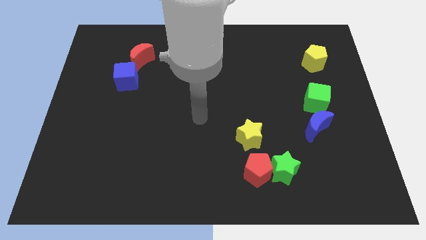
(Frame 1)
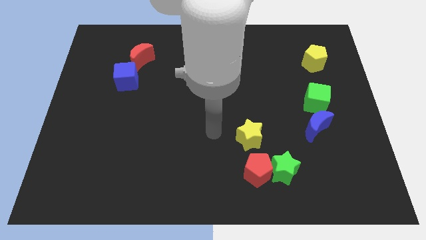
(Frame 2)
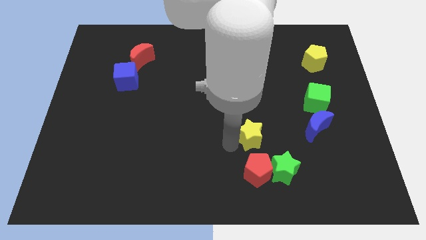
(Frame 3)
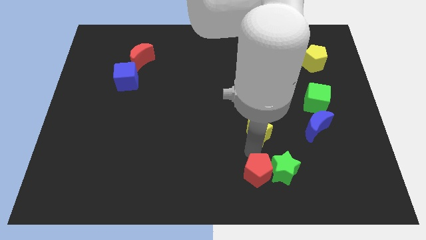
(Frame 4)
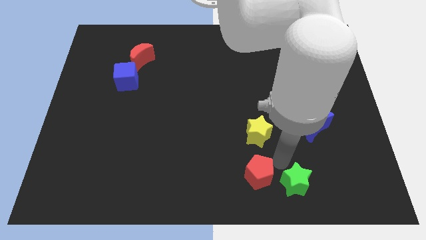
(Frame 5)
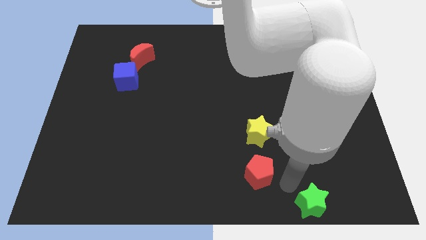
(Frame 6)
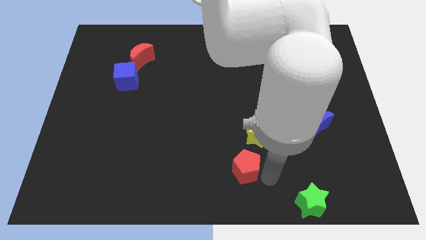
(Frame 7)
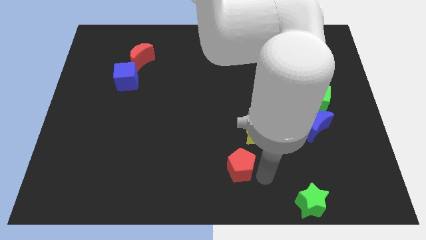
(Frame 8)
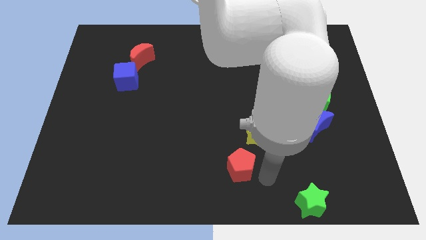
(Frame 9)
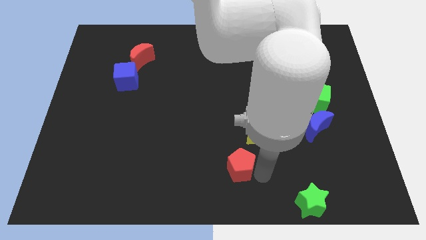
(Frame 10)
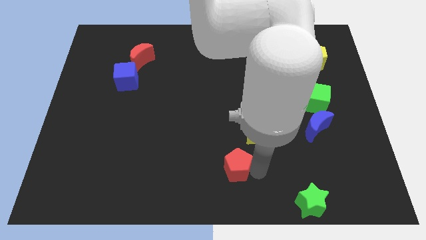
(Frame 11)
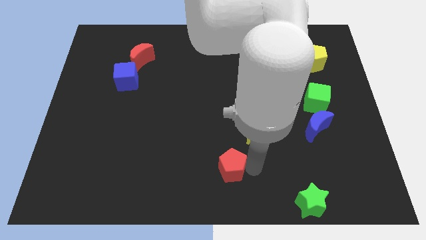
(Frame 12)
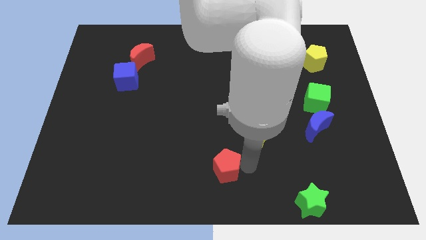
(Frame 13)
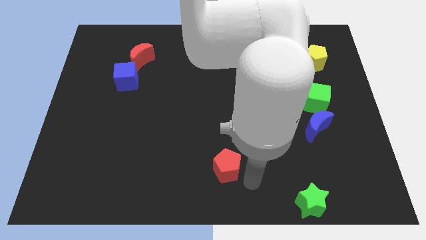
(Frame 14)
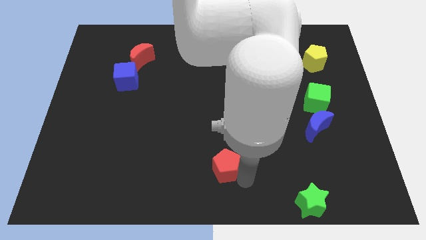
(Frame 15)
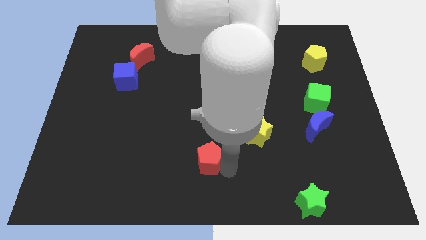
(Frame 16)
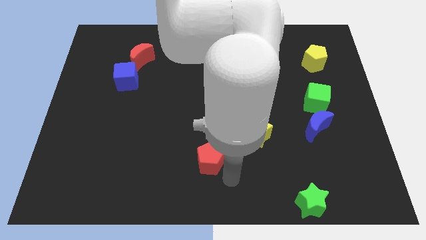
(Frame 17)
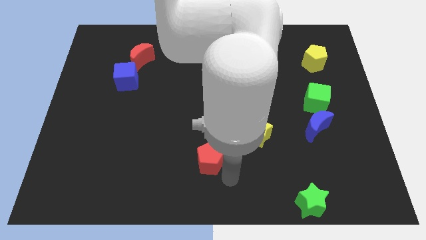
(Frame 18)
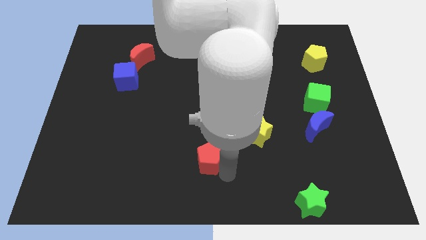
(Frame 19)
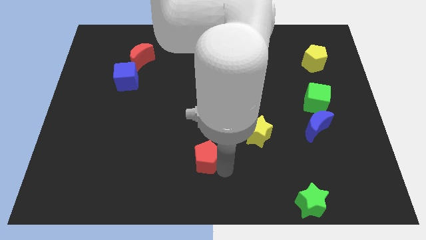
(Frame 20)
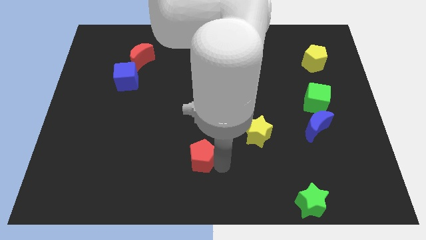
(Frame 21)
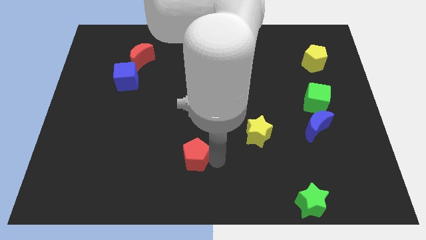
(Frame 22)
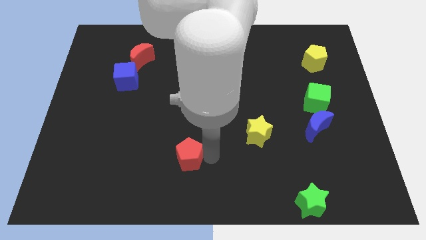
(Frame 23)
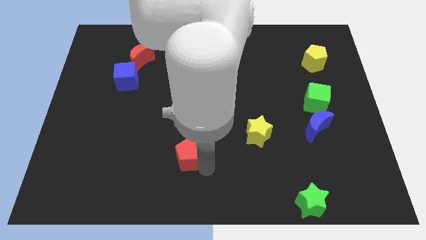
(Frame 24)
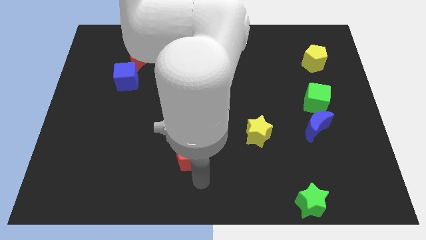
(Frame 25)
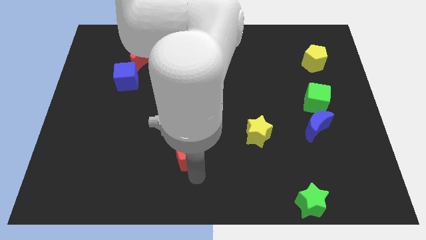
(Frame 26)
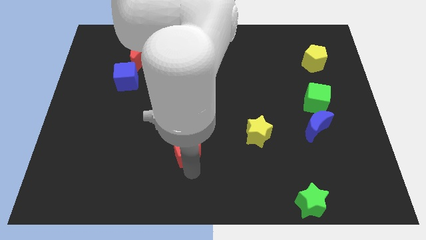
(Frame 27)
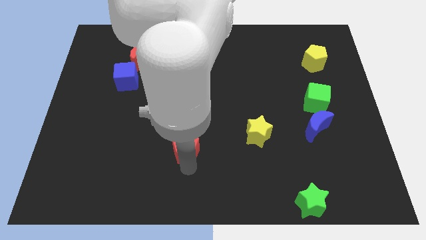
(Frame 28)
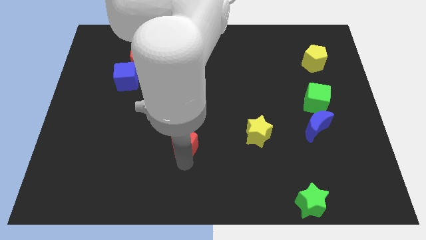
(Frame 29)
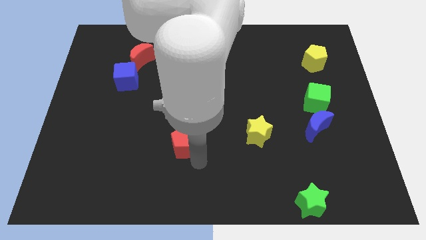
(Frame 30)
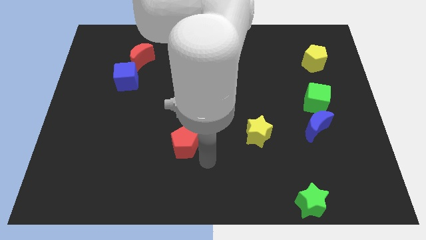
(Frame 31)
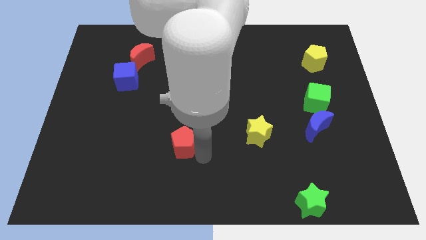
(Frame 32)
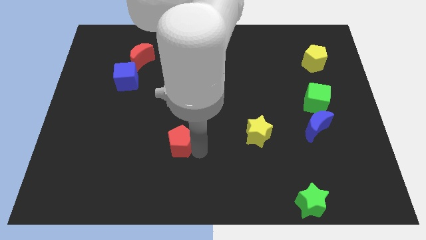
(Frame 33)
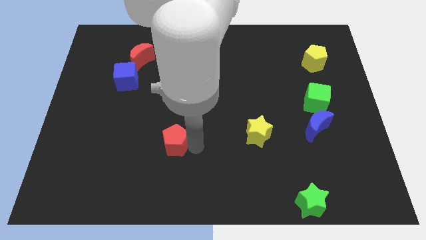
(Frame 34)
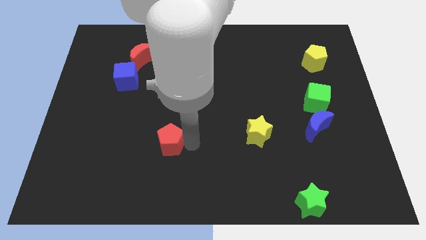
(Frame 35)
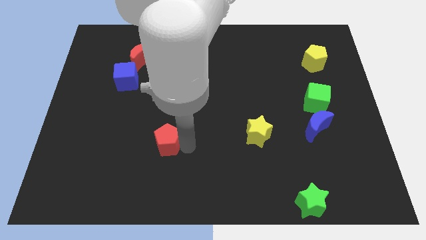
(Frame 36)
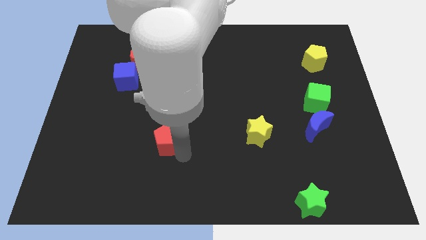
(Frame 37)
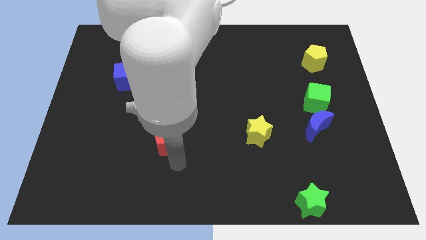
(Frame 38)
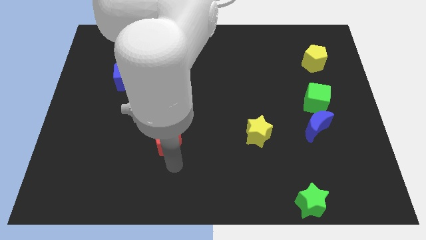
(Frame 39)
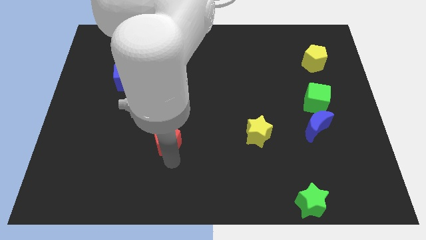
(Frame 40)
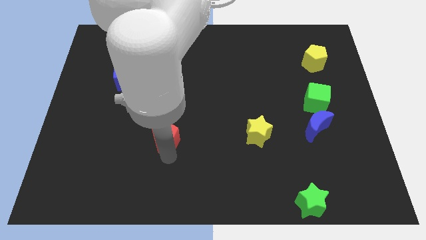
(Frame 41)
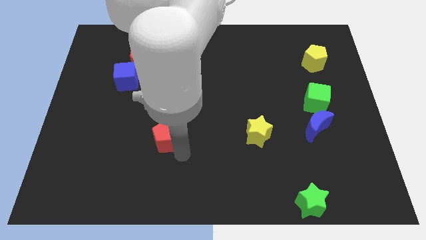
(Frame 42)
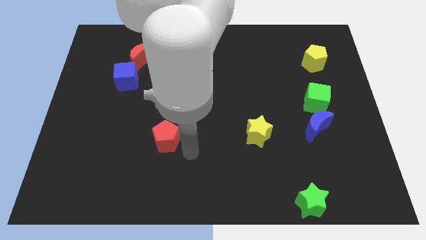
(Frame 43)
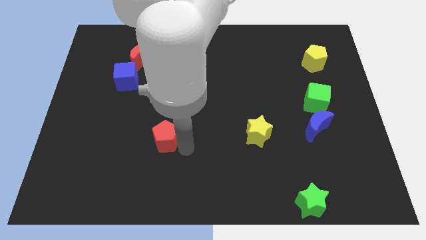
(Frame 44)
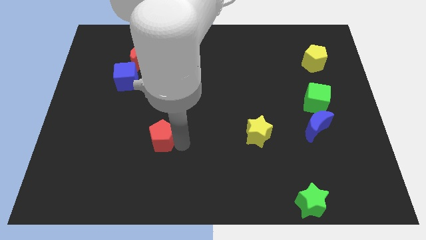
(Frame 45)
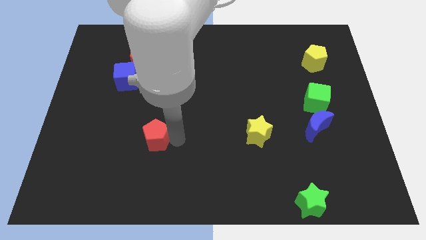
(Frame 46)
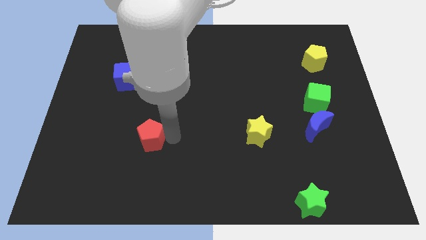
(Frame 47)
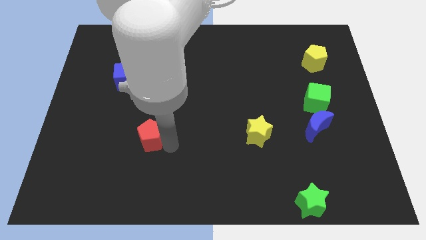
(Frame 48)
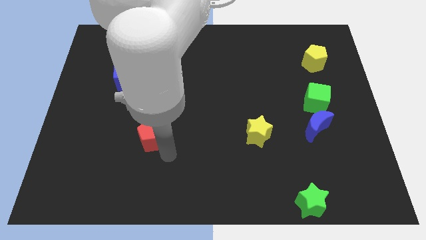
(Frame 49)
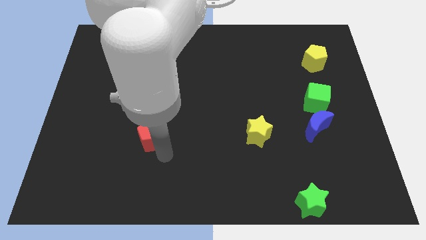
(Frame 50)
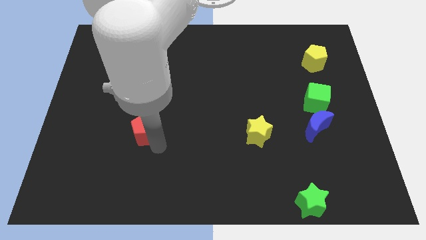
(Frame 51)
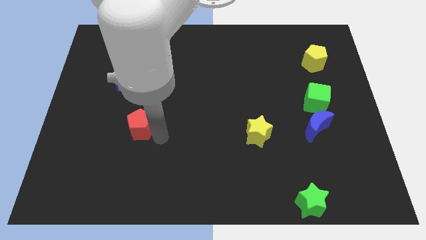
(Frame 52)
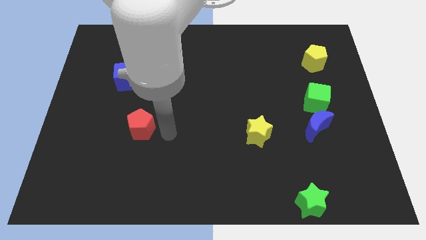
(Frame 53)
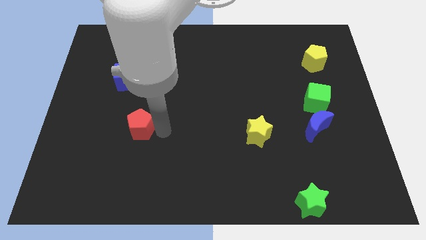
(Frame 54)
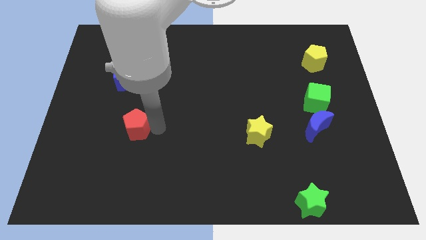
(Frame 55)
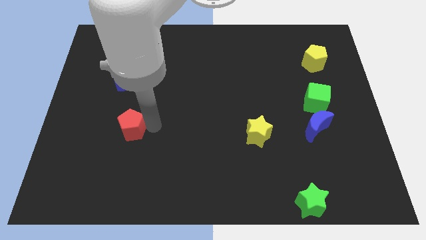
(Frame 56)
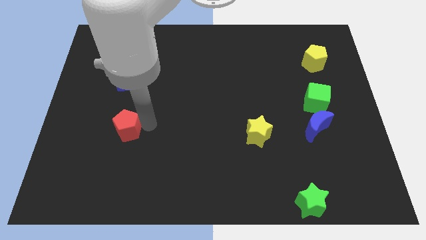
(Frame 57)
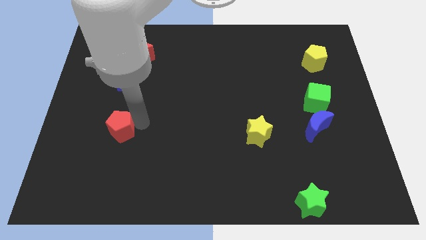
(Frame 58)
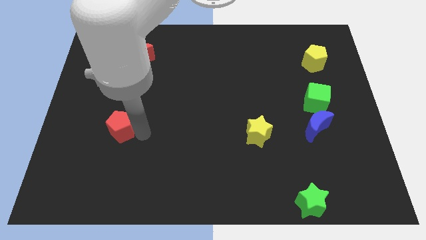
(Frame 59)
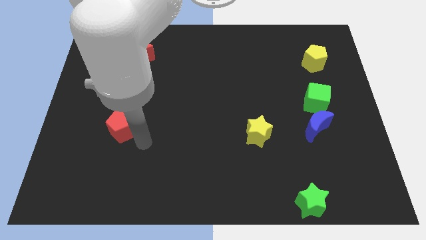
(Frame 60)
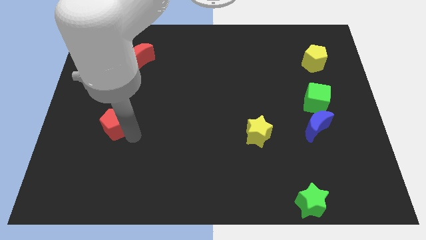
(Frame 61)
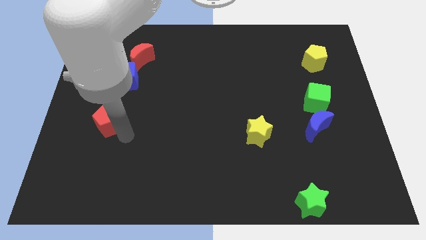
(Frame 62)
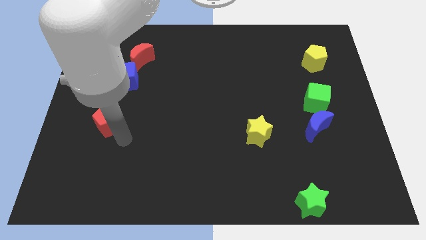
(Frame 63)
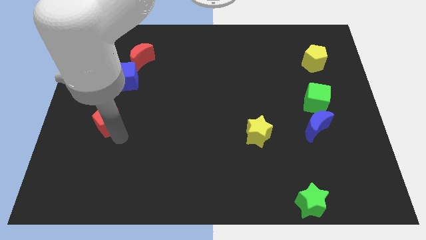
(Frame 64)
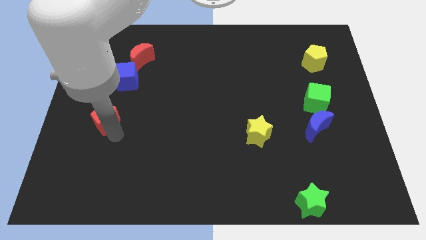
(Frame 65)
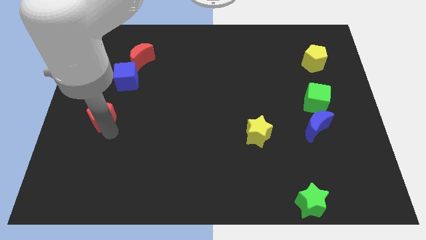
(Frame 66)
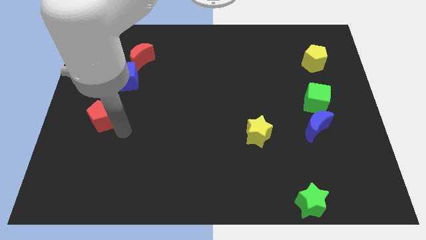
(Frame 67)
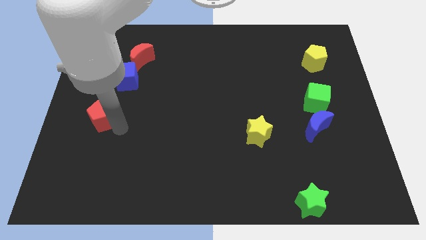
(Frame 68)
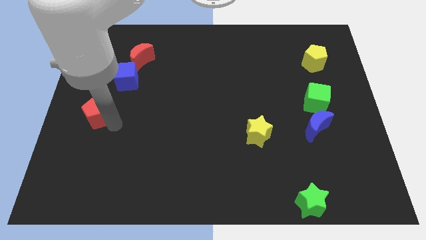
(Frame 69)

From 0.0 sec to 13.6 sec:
slide the red pentagon to the left side
